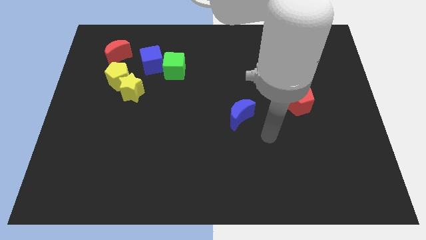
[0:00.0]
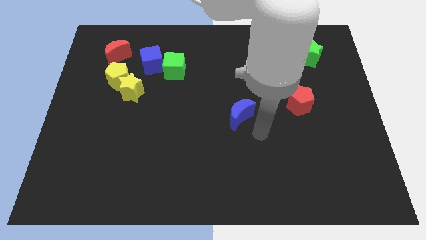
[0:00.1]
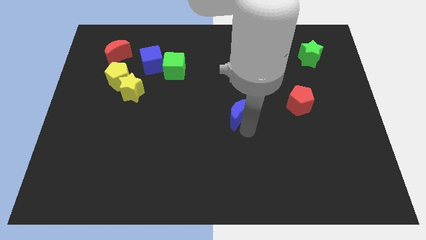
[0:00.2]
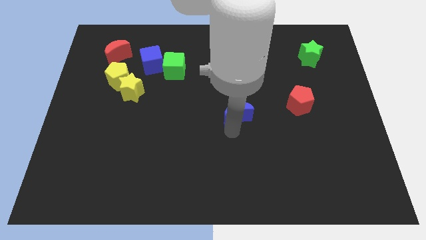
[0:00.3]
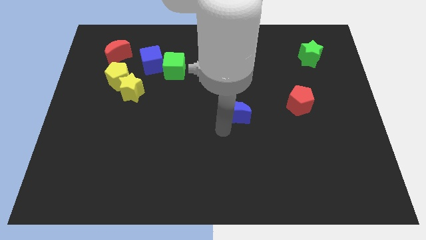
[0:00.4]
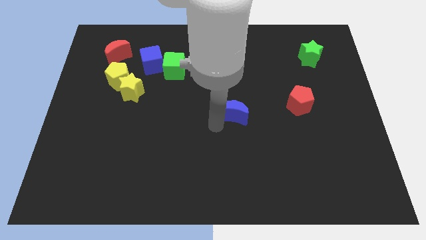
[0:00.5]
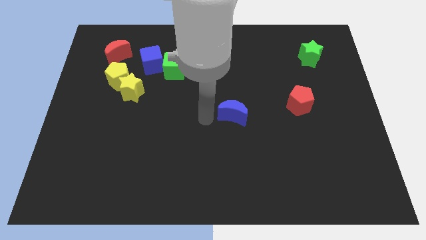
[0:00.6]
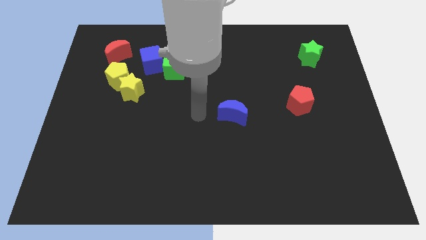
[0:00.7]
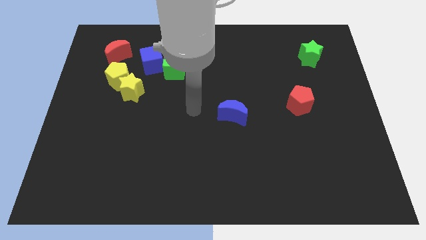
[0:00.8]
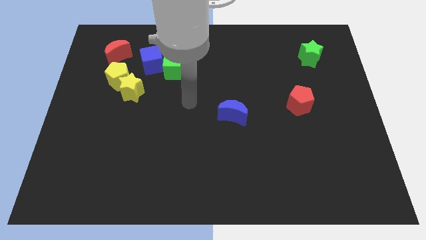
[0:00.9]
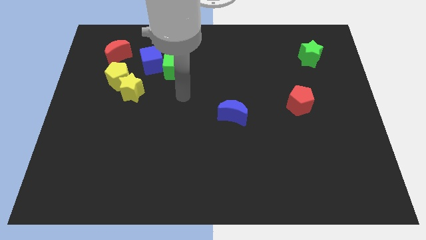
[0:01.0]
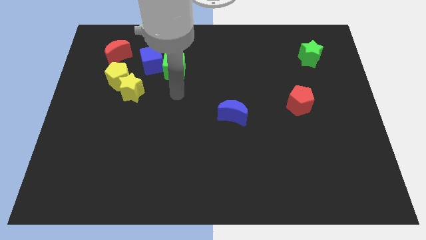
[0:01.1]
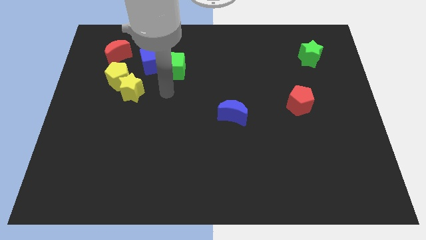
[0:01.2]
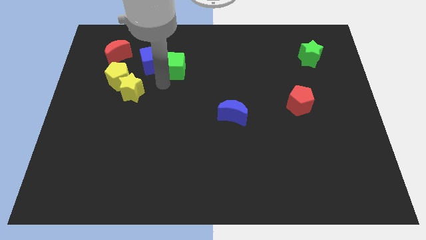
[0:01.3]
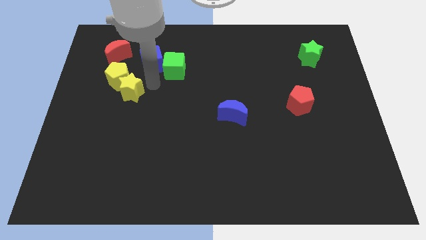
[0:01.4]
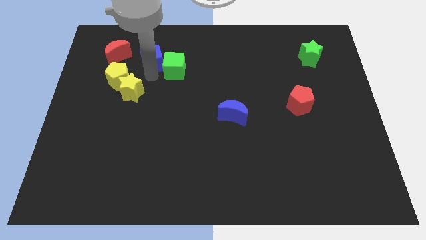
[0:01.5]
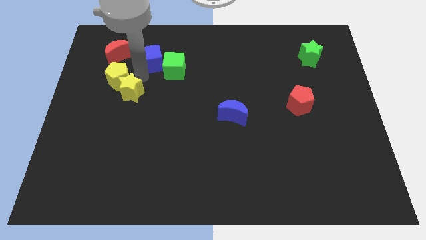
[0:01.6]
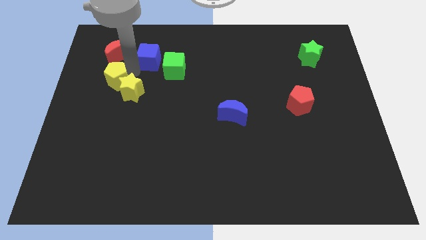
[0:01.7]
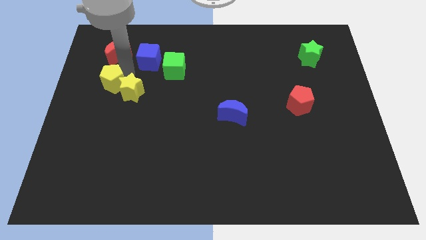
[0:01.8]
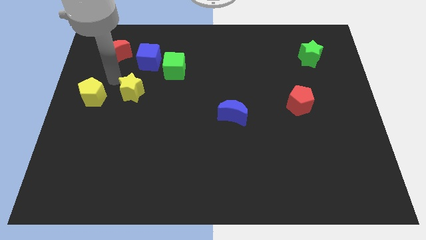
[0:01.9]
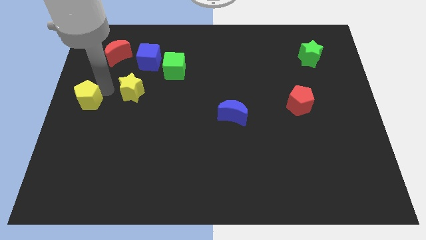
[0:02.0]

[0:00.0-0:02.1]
pull the yellow star apart from the yellow pentagon

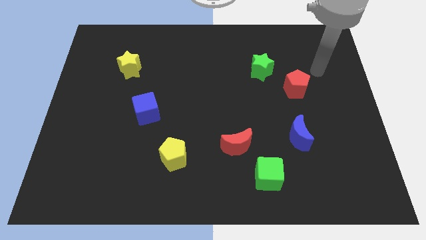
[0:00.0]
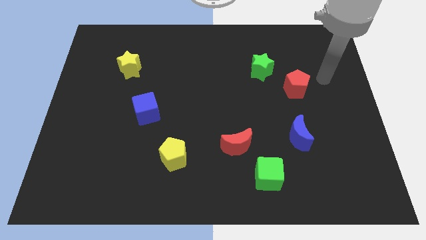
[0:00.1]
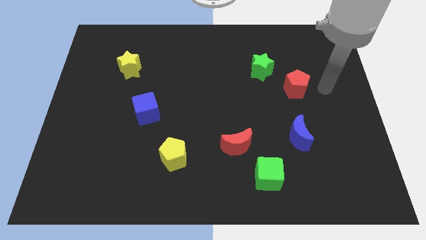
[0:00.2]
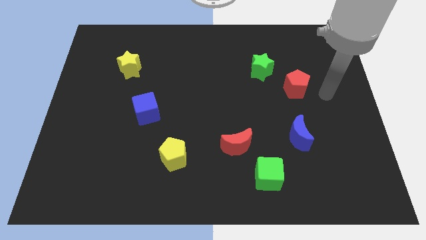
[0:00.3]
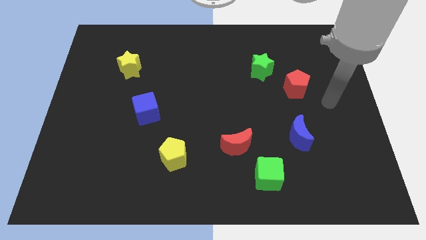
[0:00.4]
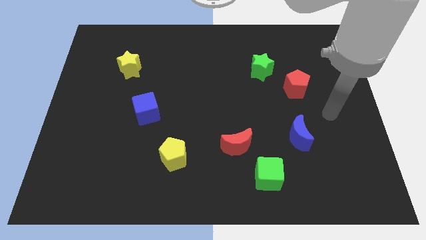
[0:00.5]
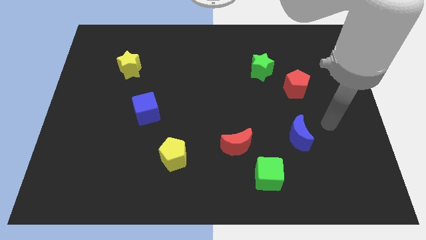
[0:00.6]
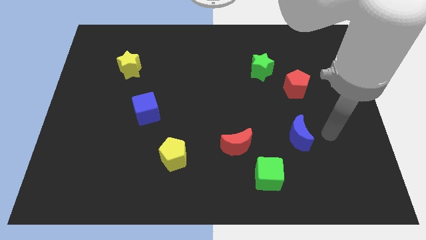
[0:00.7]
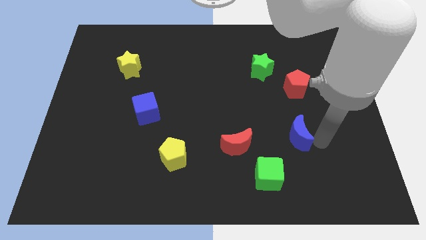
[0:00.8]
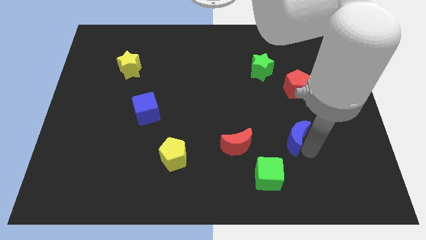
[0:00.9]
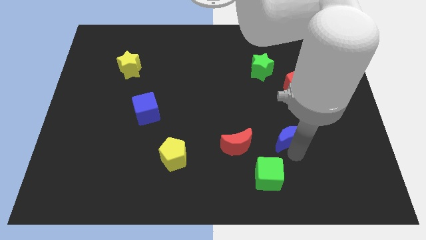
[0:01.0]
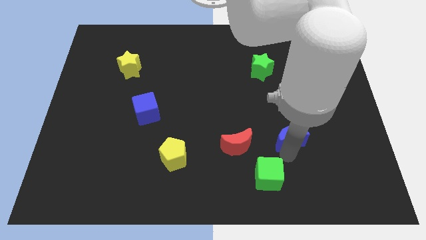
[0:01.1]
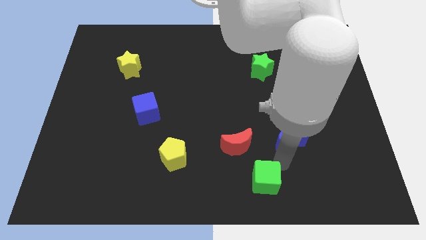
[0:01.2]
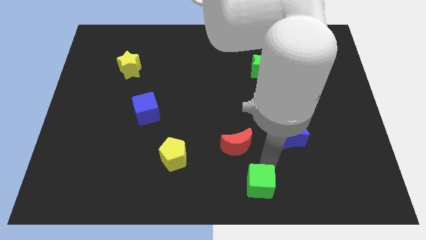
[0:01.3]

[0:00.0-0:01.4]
separate the red moon from the green cube

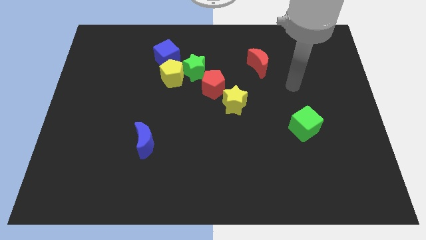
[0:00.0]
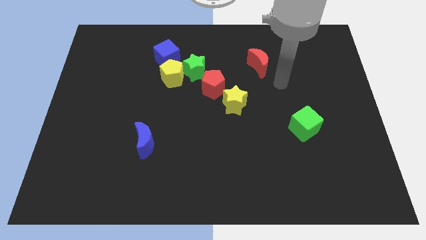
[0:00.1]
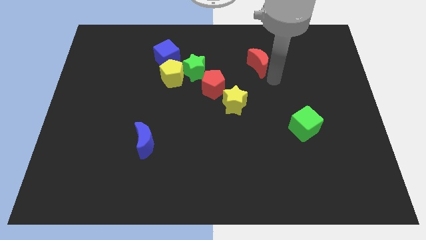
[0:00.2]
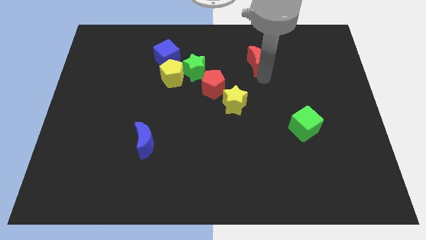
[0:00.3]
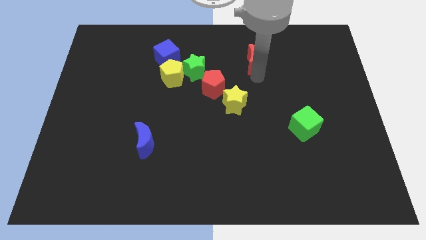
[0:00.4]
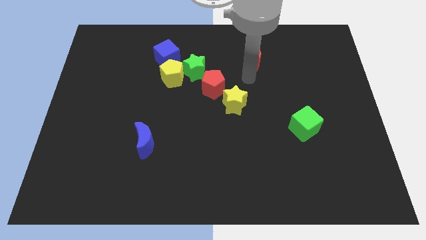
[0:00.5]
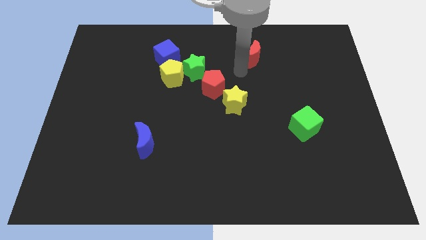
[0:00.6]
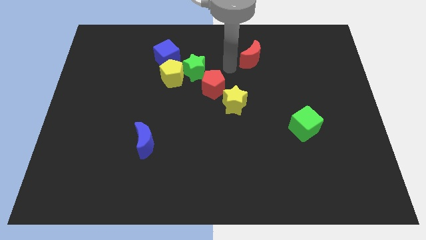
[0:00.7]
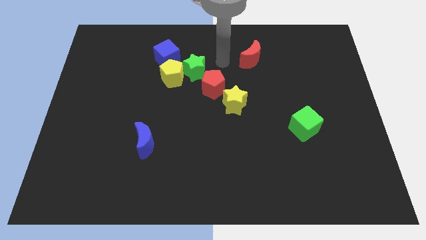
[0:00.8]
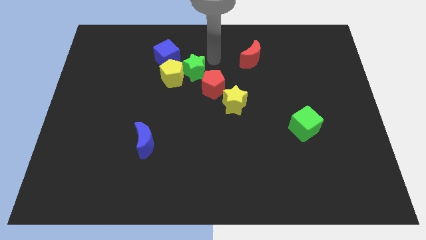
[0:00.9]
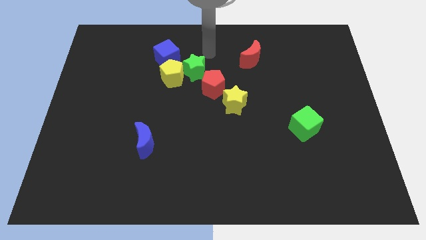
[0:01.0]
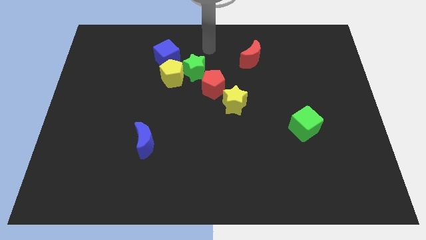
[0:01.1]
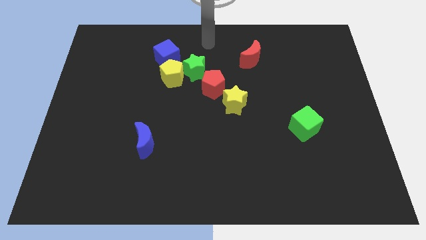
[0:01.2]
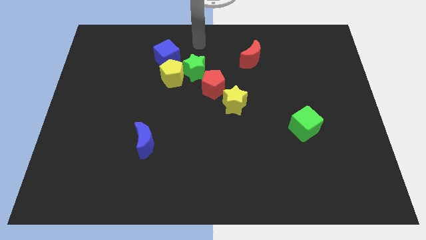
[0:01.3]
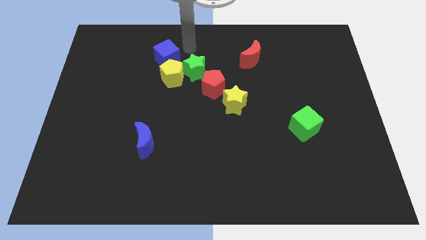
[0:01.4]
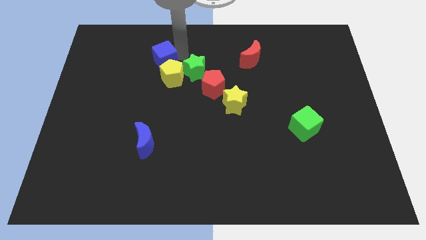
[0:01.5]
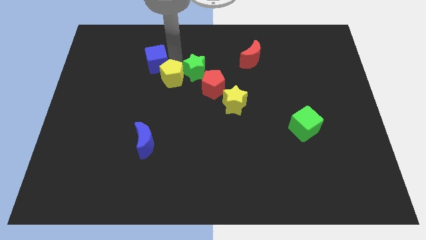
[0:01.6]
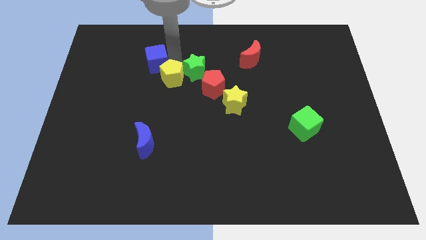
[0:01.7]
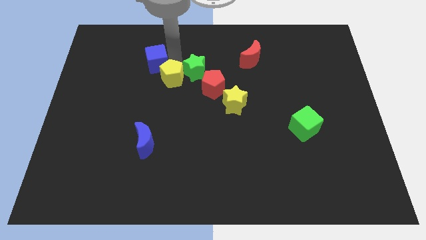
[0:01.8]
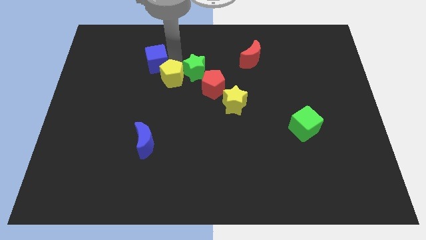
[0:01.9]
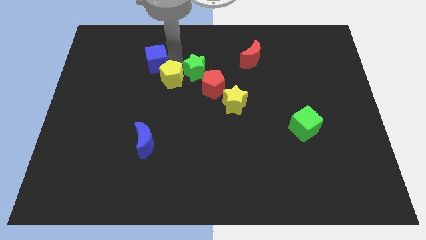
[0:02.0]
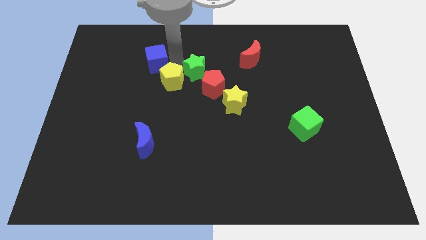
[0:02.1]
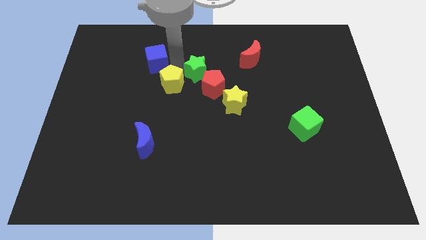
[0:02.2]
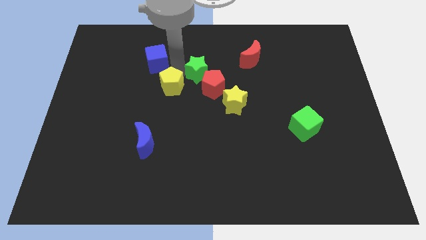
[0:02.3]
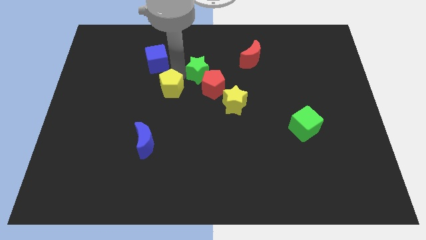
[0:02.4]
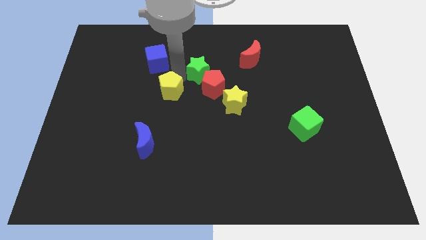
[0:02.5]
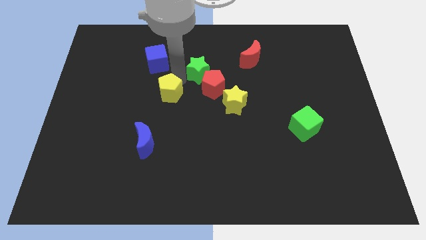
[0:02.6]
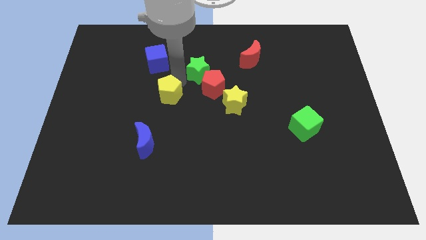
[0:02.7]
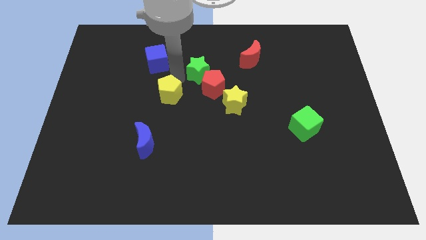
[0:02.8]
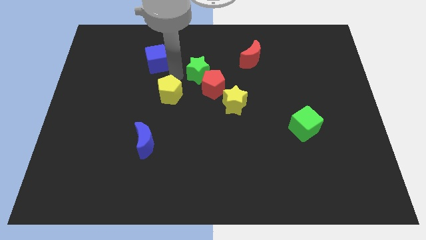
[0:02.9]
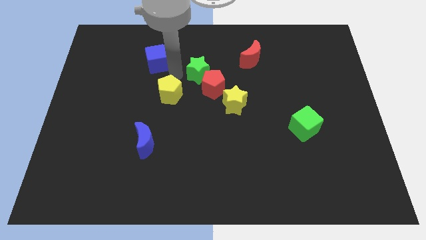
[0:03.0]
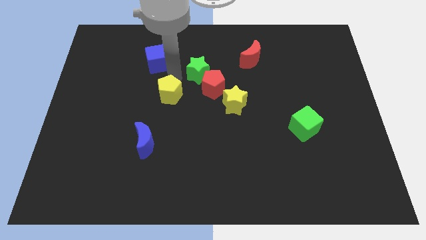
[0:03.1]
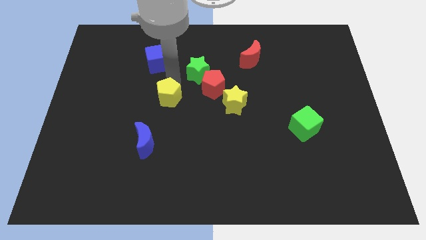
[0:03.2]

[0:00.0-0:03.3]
pull the yellow pentagon apart from the green star and blue cube

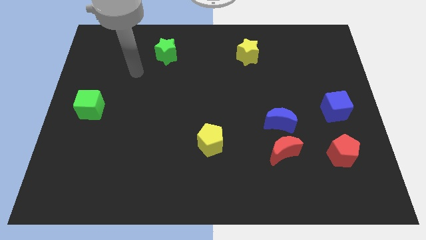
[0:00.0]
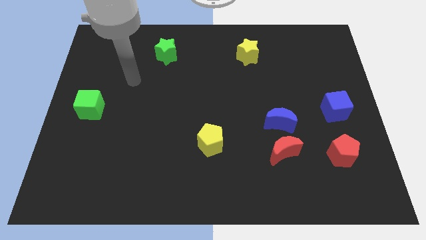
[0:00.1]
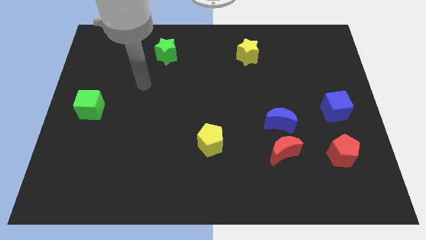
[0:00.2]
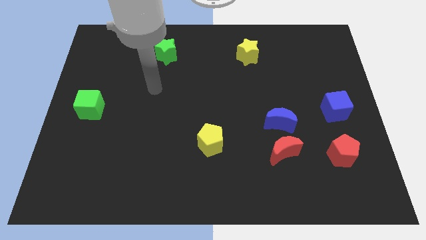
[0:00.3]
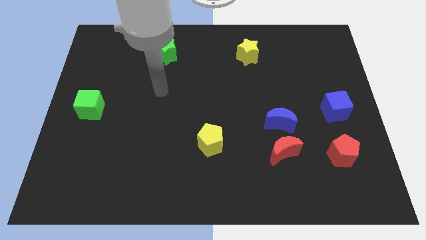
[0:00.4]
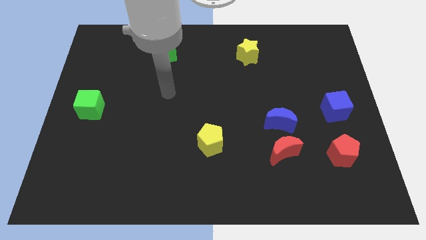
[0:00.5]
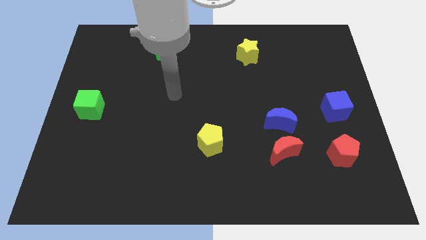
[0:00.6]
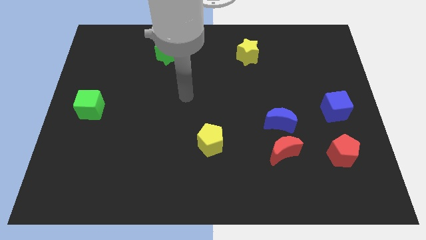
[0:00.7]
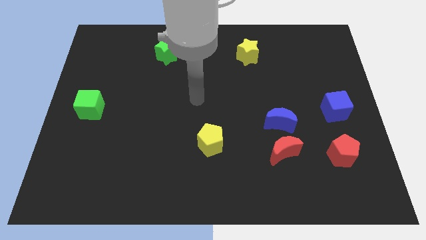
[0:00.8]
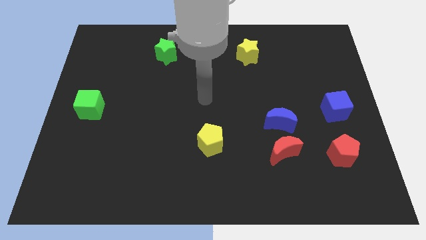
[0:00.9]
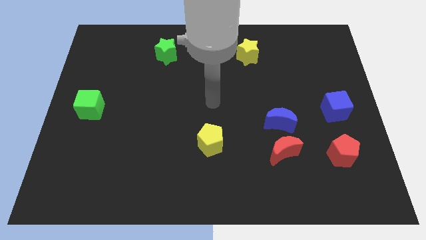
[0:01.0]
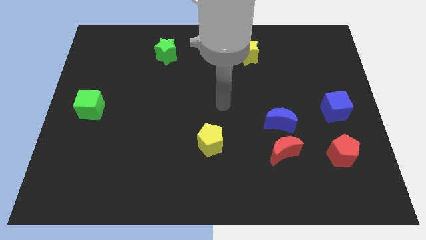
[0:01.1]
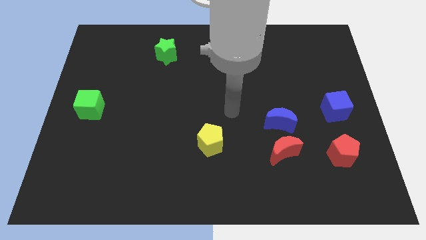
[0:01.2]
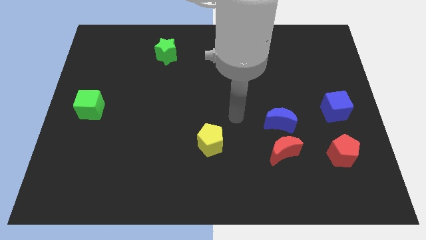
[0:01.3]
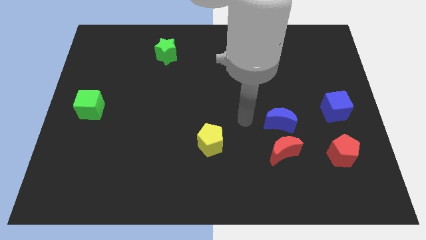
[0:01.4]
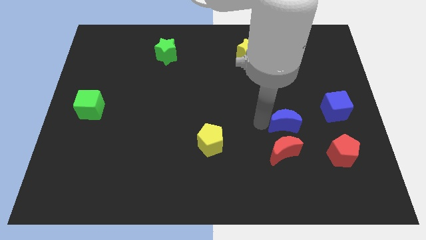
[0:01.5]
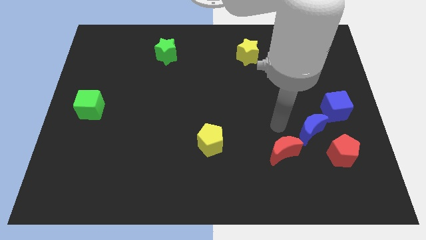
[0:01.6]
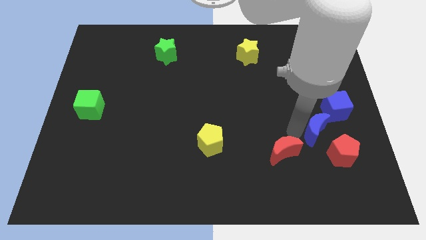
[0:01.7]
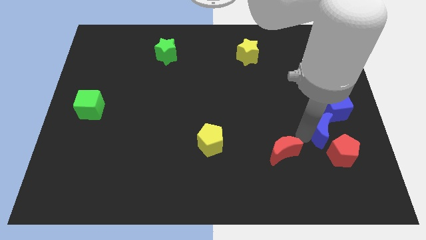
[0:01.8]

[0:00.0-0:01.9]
separate the red moon from the blue moon

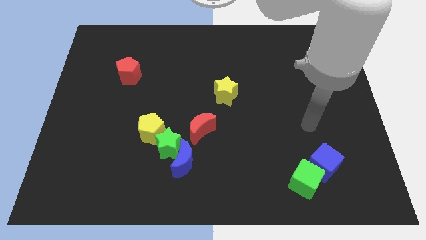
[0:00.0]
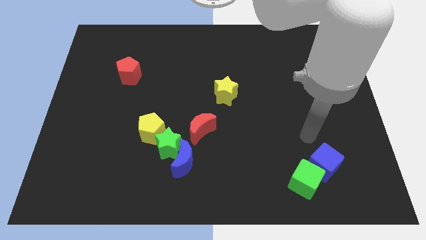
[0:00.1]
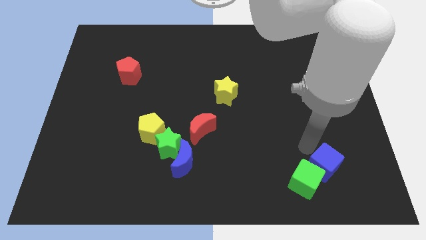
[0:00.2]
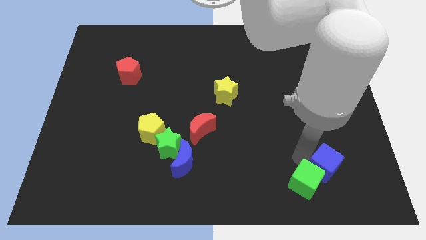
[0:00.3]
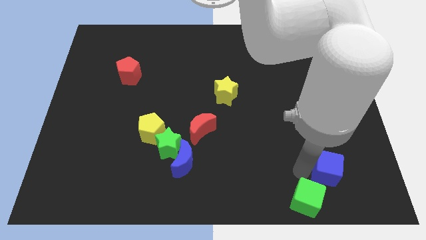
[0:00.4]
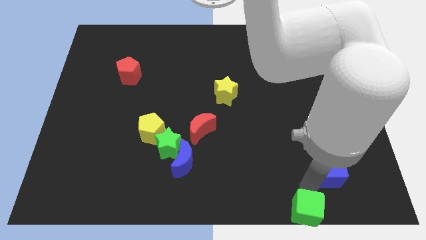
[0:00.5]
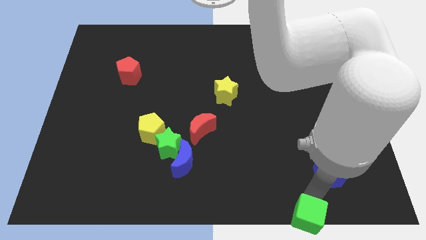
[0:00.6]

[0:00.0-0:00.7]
separate the blue cube from the green cube
